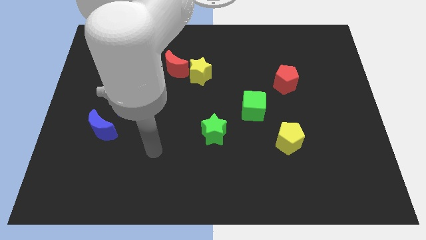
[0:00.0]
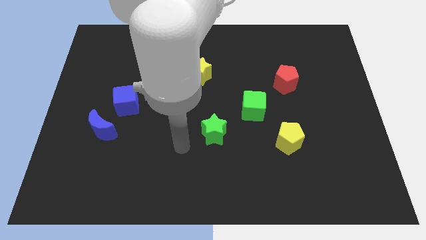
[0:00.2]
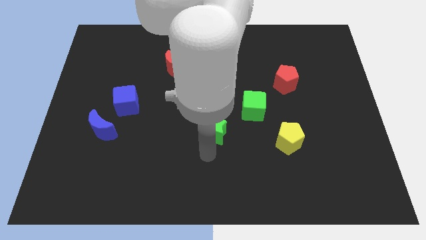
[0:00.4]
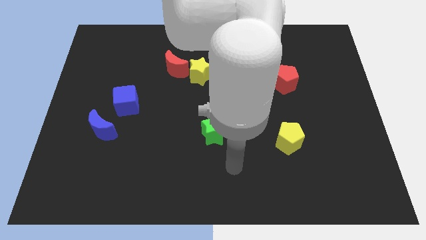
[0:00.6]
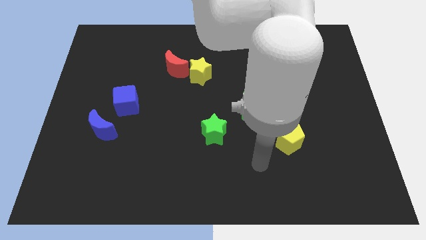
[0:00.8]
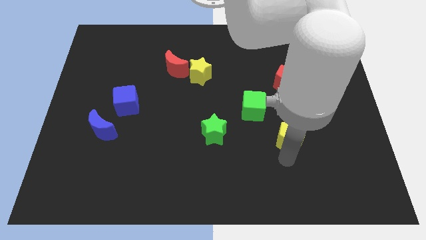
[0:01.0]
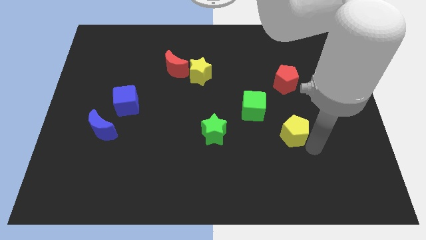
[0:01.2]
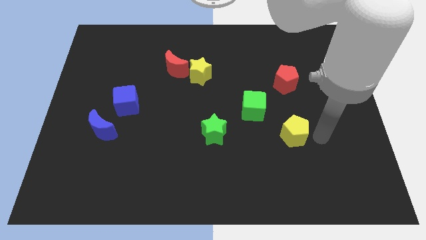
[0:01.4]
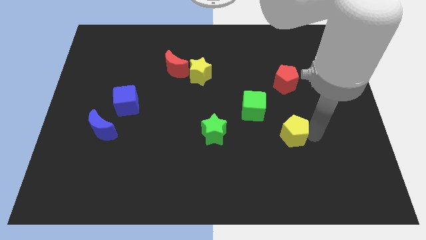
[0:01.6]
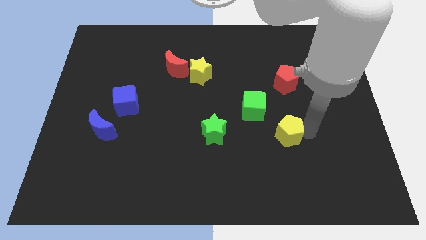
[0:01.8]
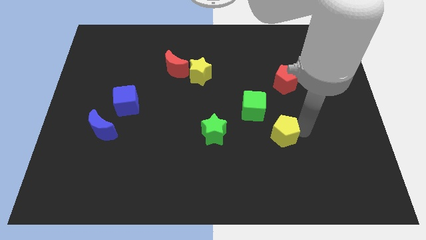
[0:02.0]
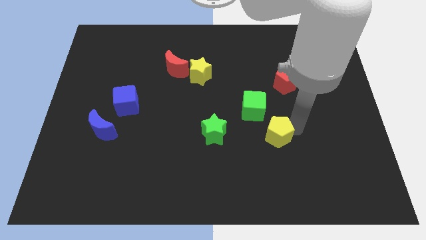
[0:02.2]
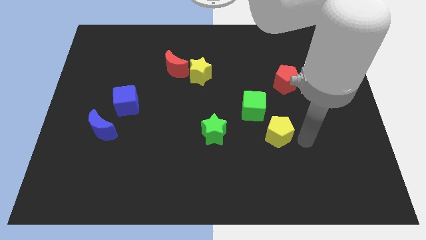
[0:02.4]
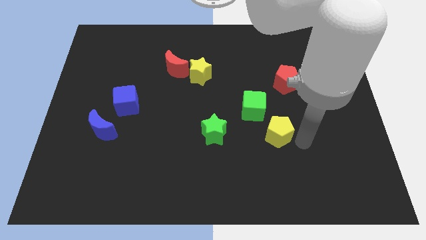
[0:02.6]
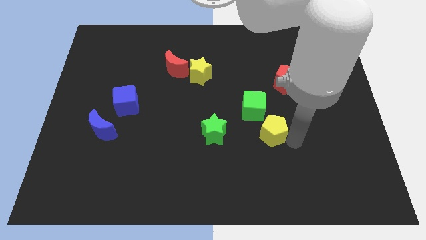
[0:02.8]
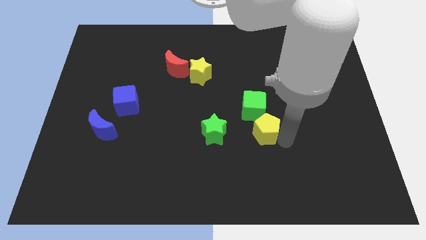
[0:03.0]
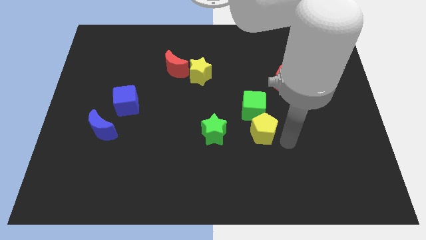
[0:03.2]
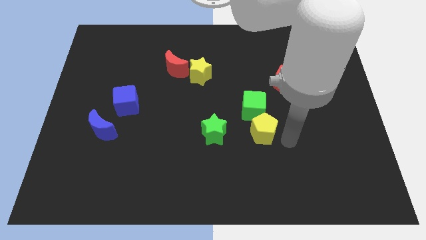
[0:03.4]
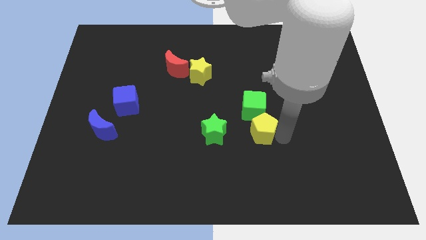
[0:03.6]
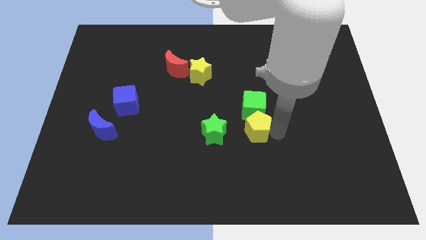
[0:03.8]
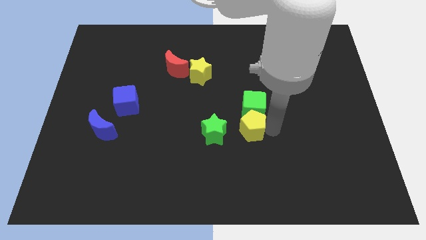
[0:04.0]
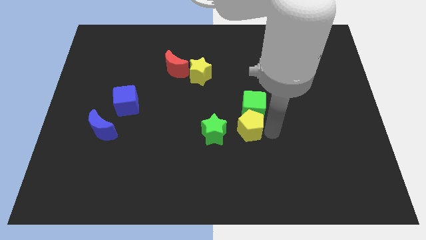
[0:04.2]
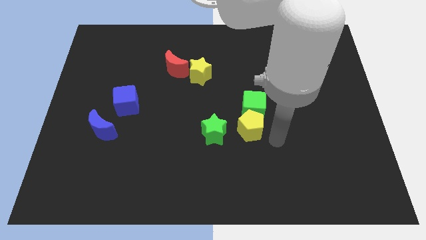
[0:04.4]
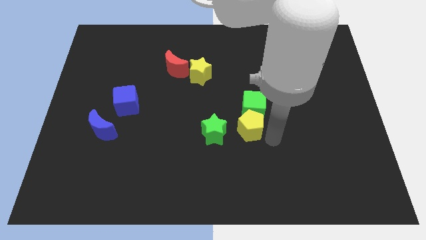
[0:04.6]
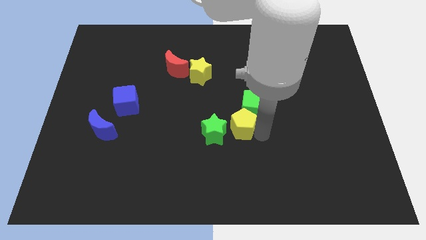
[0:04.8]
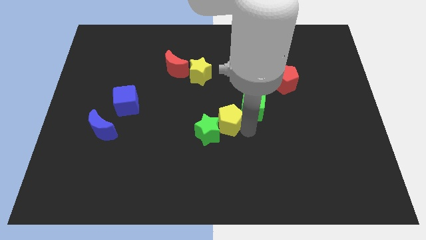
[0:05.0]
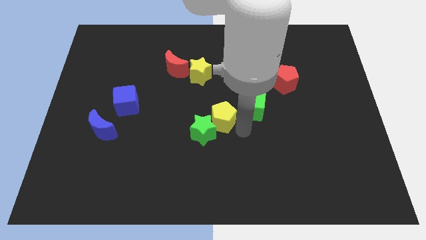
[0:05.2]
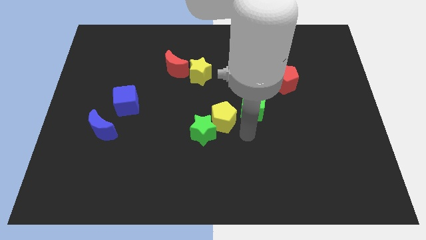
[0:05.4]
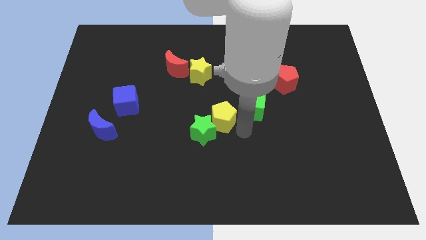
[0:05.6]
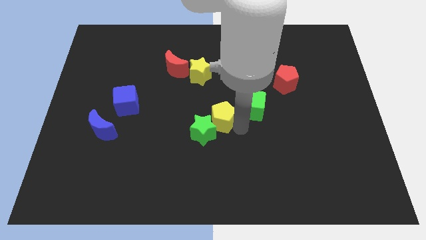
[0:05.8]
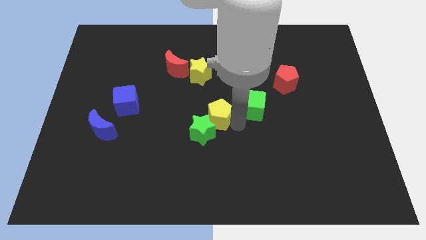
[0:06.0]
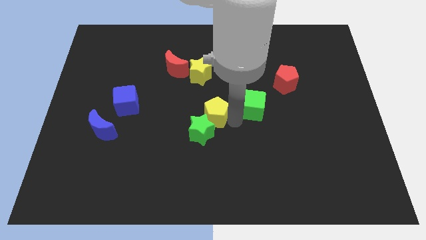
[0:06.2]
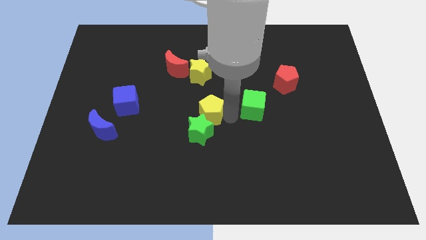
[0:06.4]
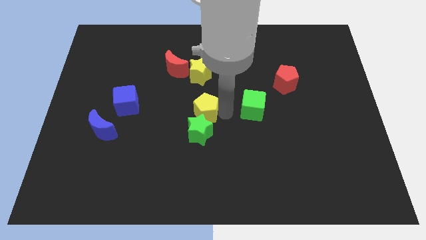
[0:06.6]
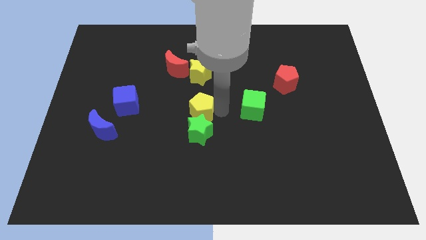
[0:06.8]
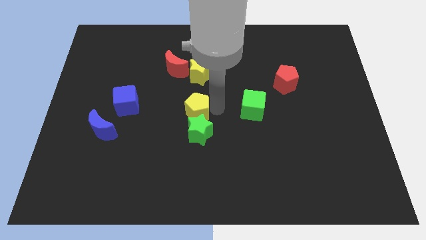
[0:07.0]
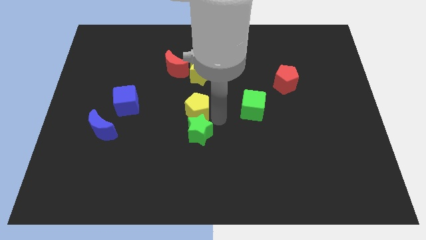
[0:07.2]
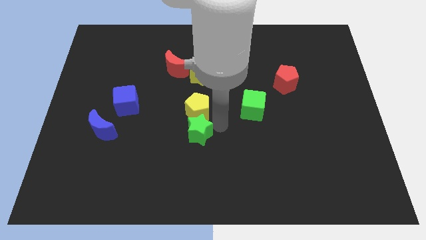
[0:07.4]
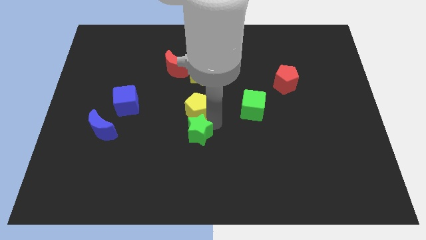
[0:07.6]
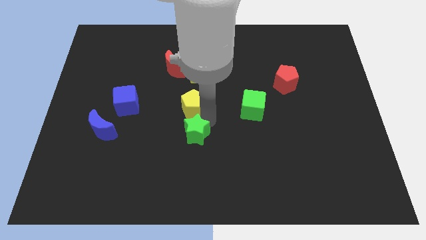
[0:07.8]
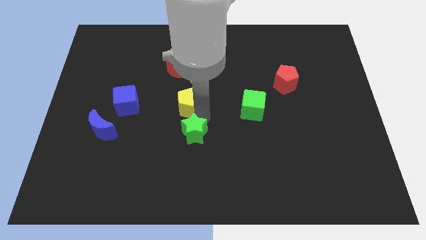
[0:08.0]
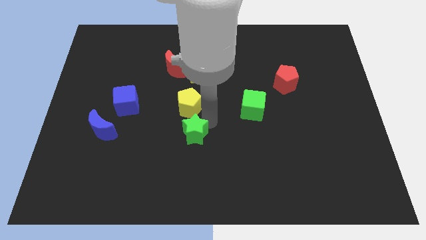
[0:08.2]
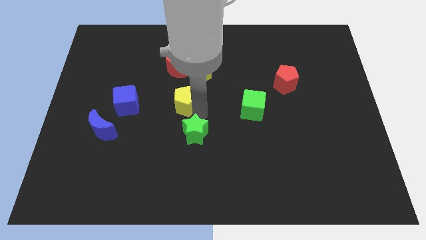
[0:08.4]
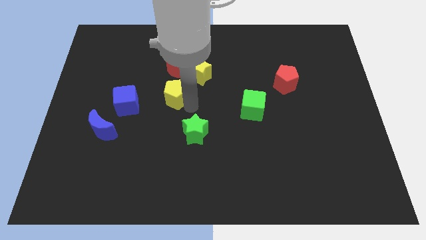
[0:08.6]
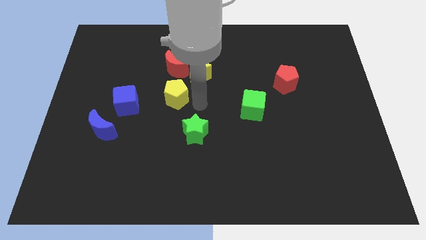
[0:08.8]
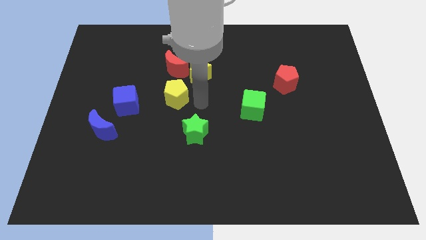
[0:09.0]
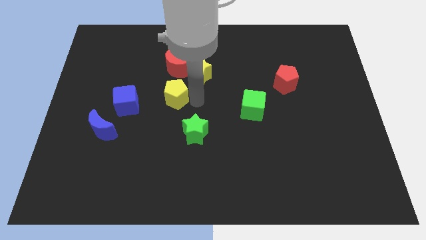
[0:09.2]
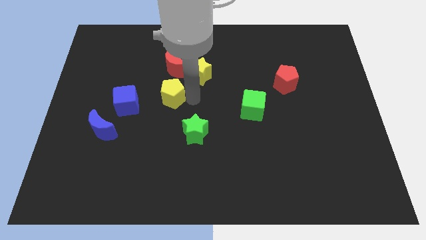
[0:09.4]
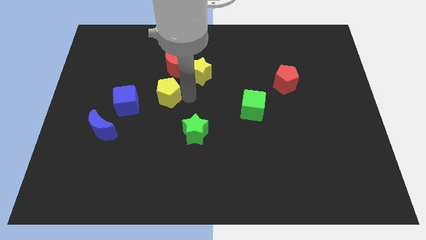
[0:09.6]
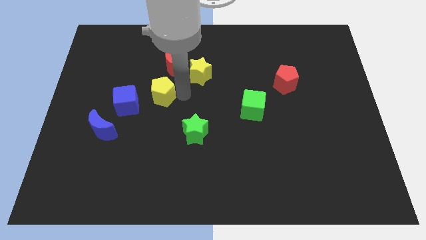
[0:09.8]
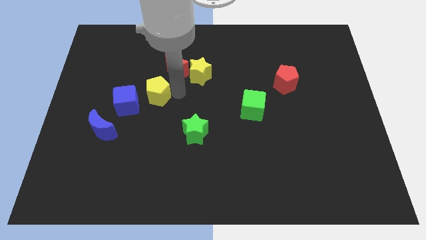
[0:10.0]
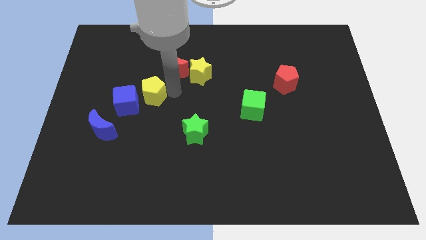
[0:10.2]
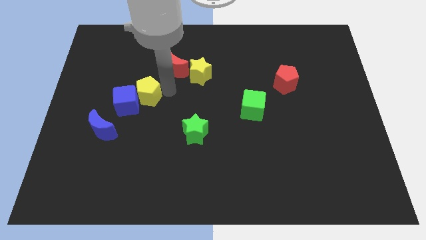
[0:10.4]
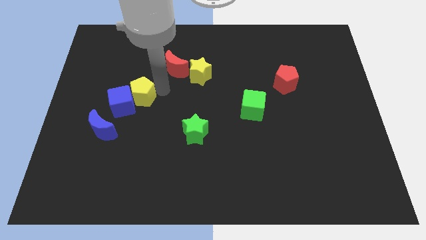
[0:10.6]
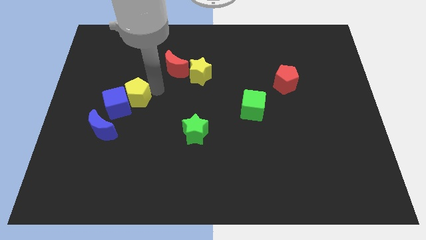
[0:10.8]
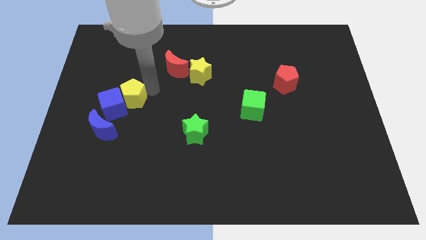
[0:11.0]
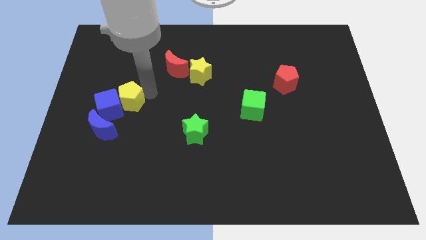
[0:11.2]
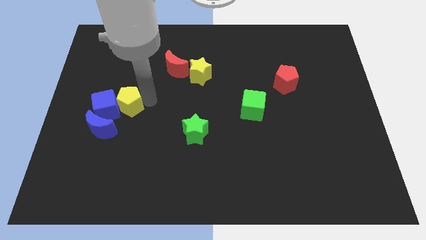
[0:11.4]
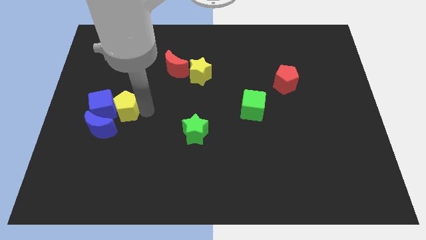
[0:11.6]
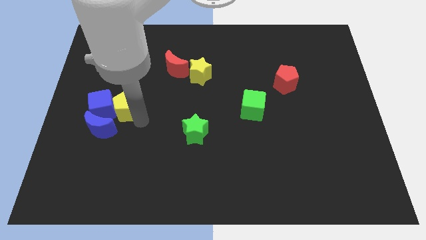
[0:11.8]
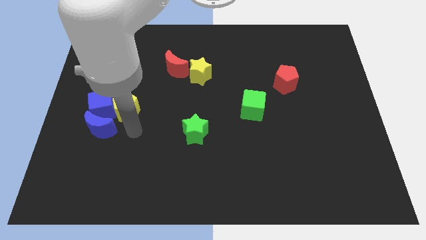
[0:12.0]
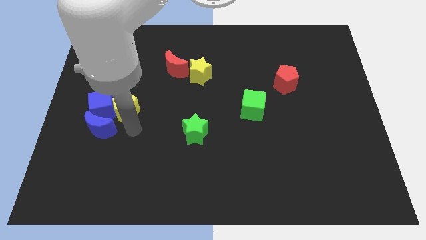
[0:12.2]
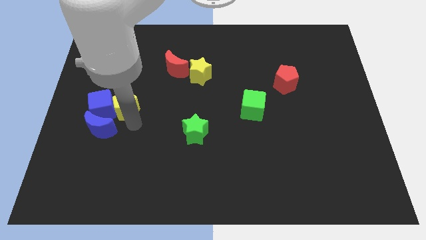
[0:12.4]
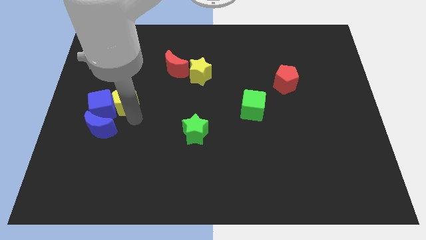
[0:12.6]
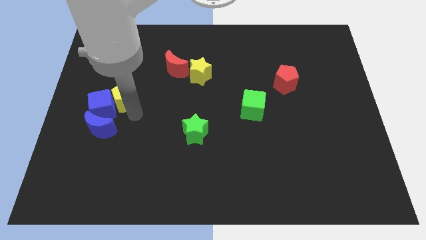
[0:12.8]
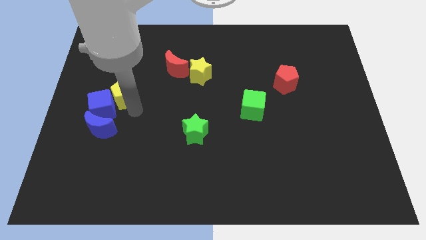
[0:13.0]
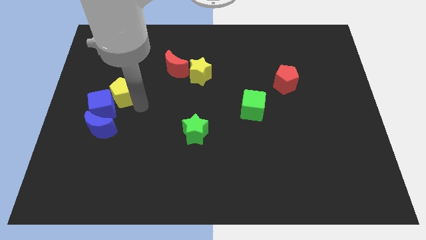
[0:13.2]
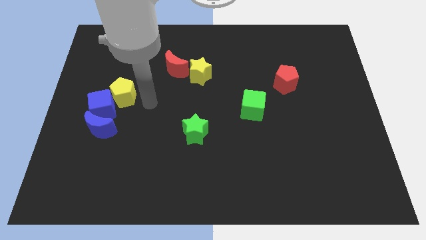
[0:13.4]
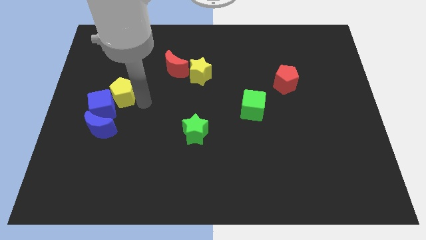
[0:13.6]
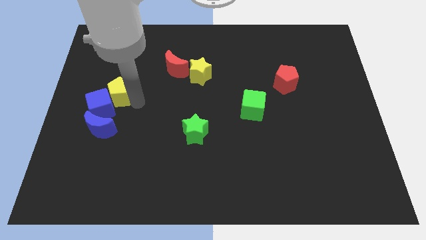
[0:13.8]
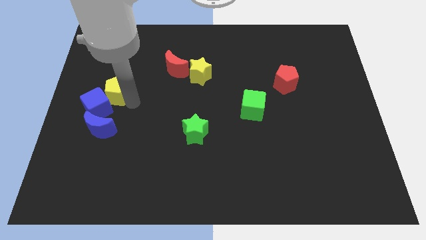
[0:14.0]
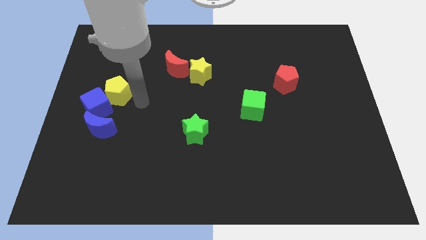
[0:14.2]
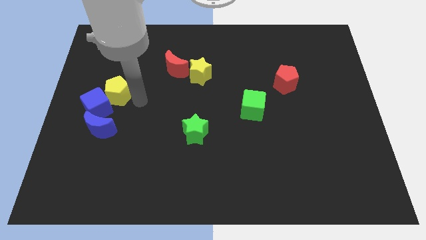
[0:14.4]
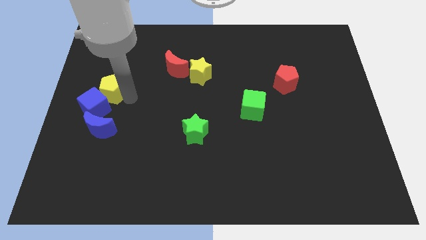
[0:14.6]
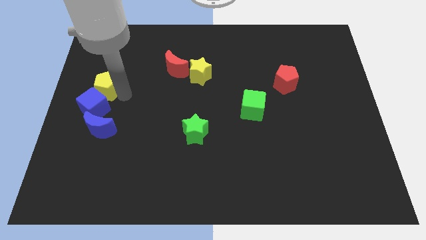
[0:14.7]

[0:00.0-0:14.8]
slide the yellow pentagon to the center left
